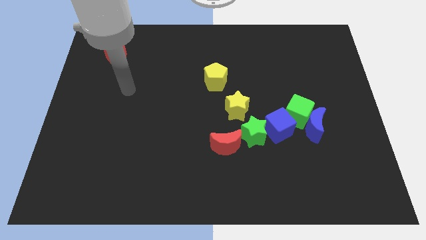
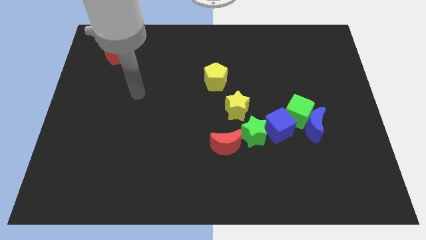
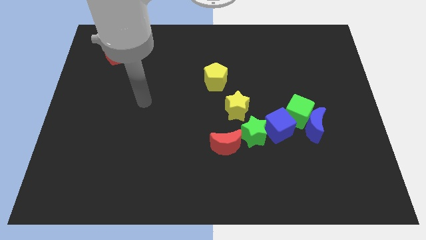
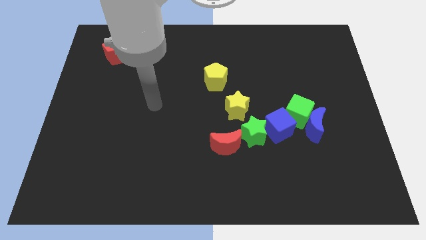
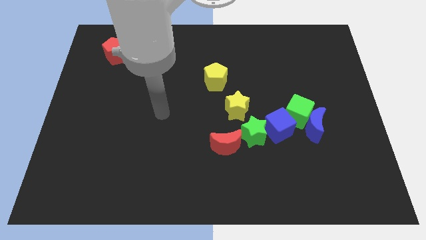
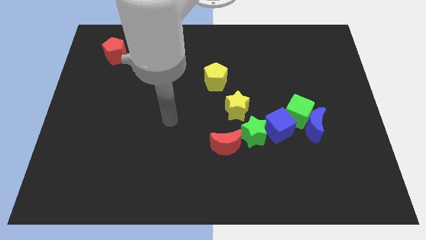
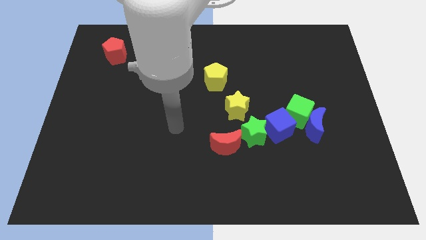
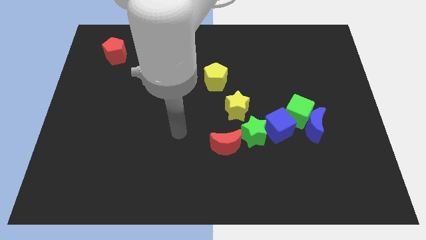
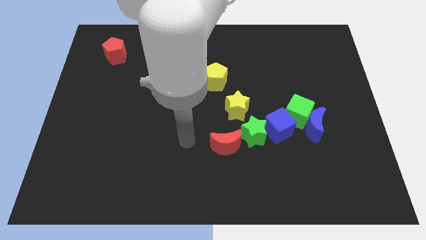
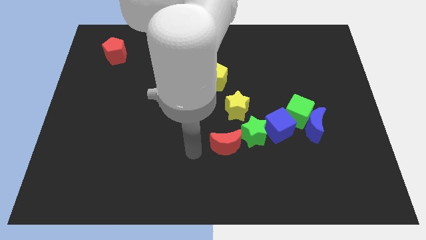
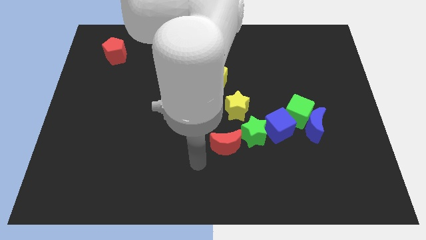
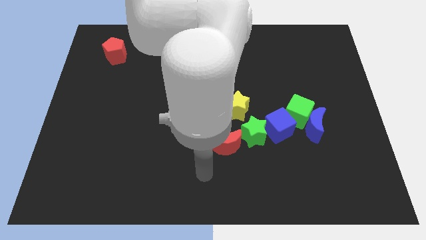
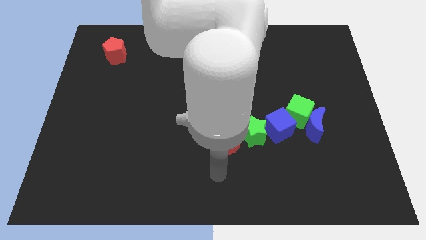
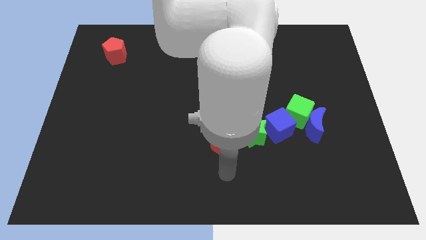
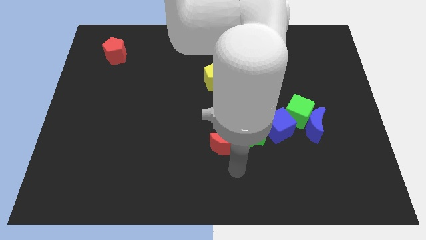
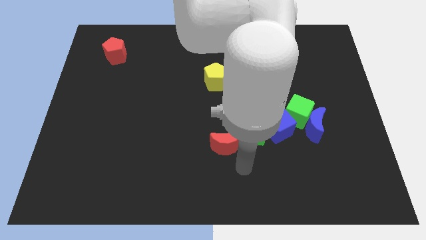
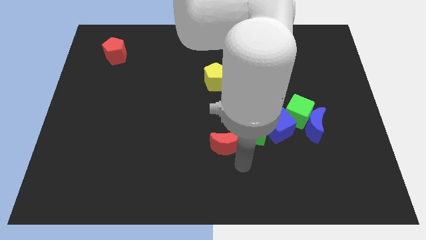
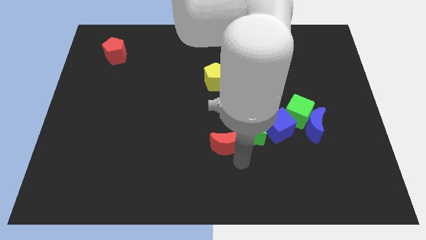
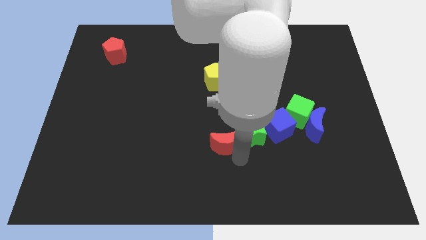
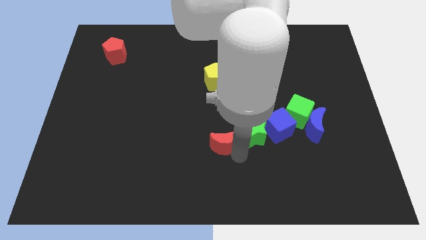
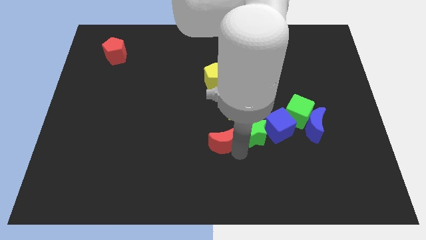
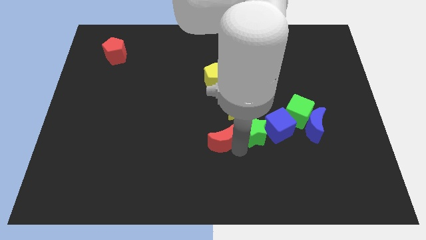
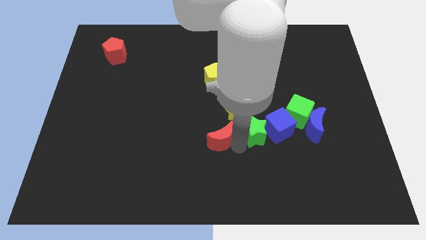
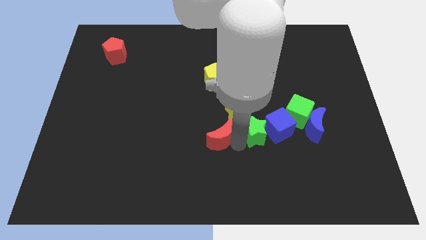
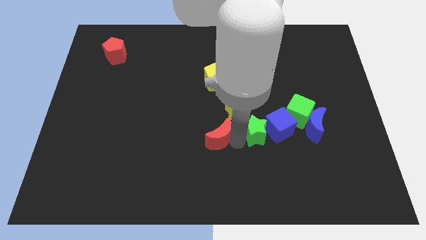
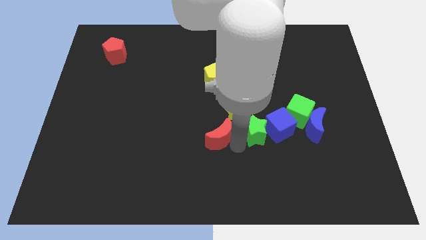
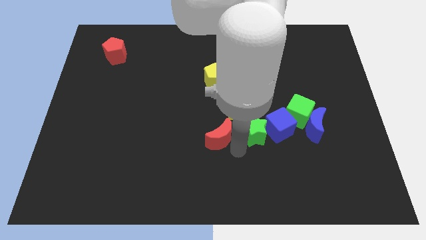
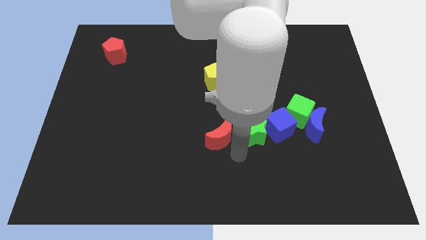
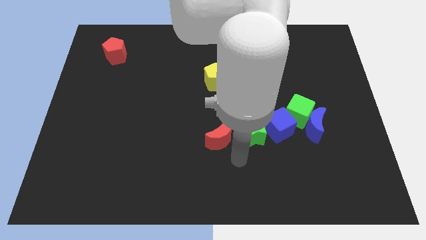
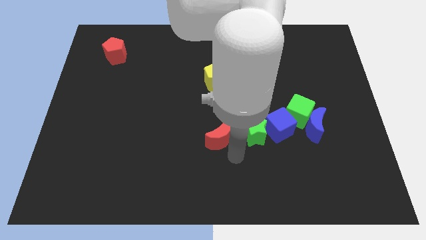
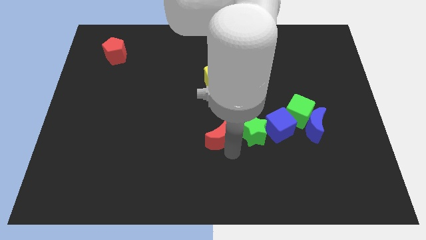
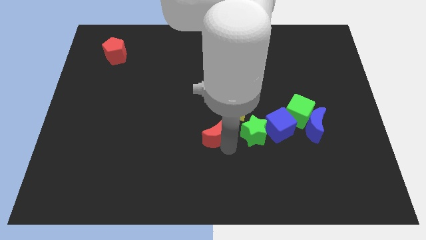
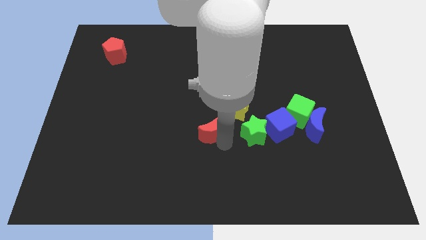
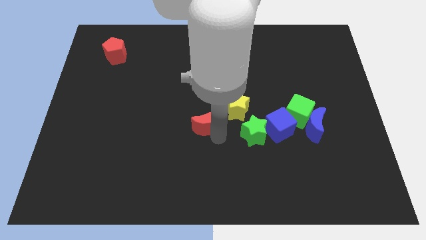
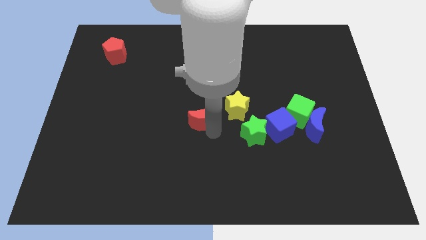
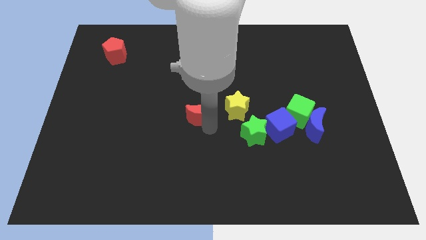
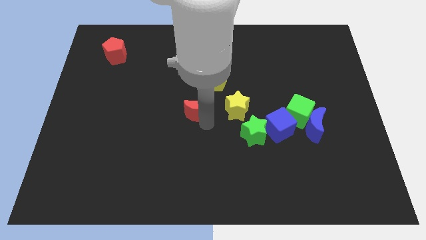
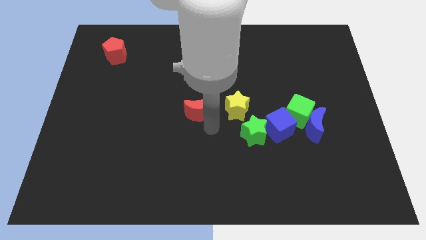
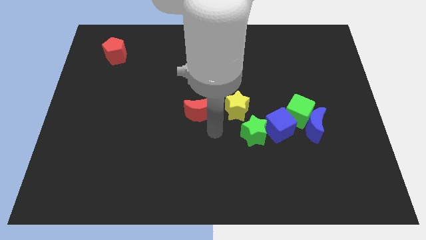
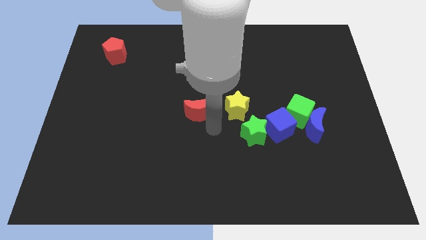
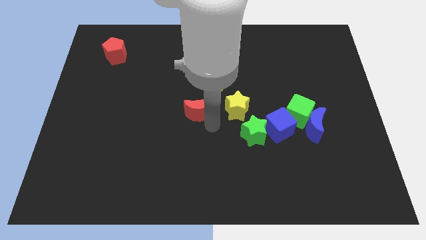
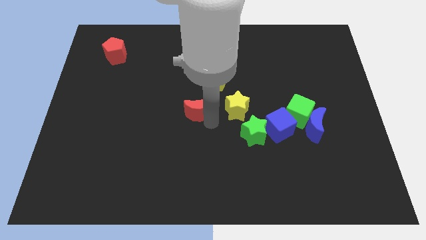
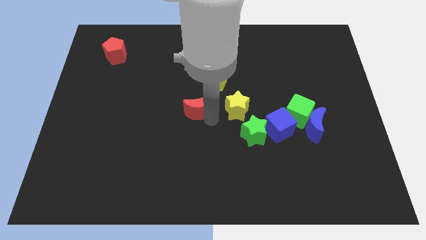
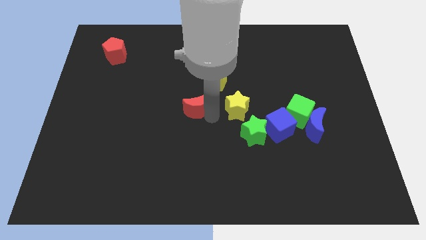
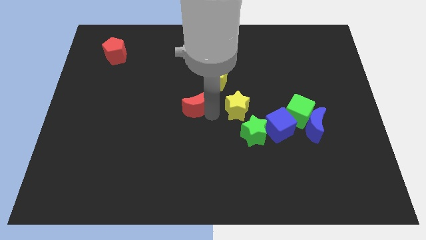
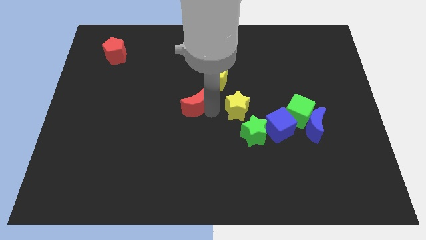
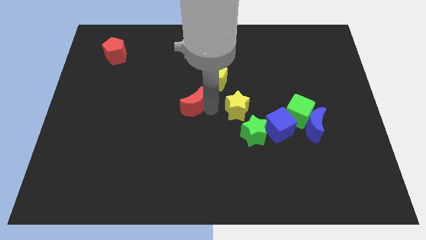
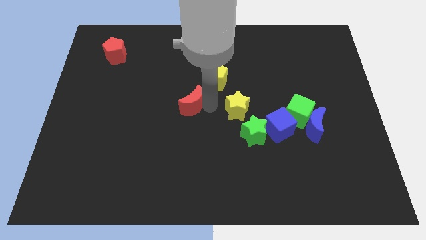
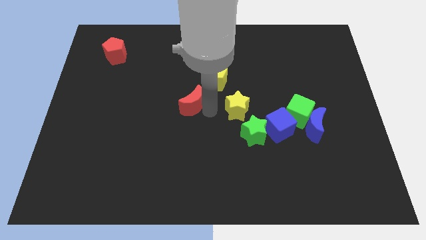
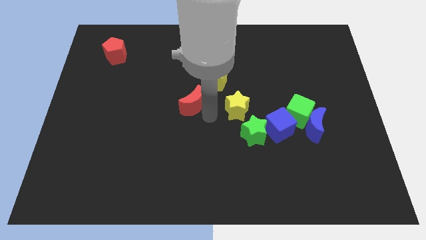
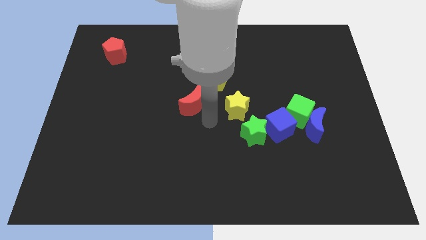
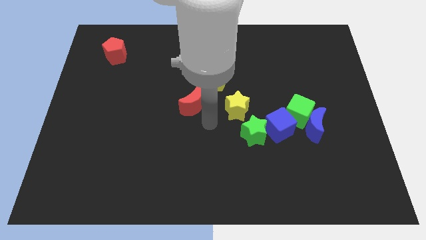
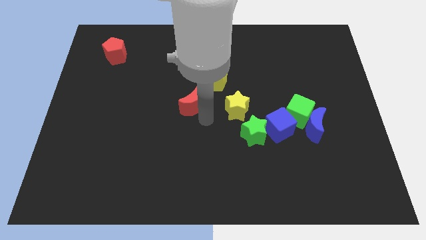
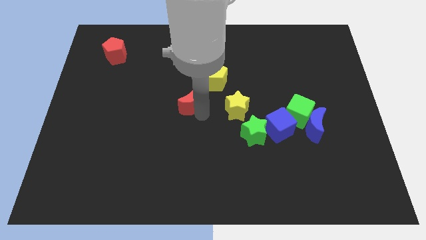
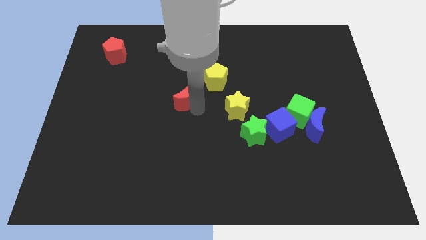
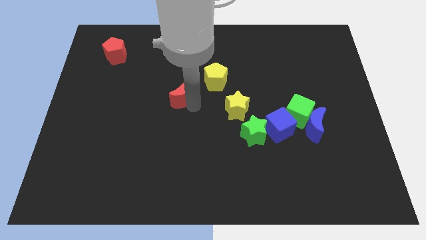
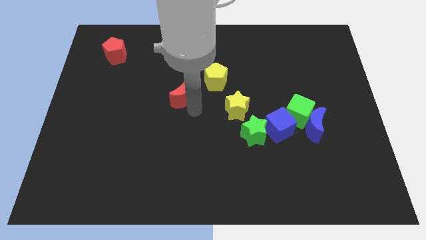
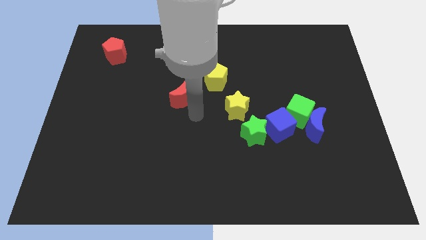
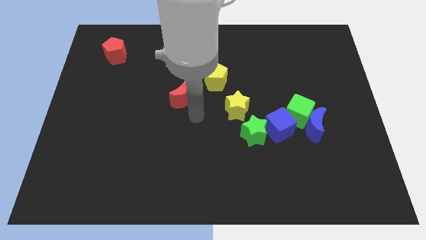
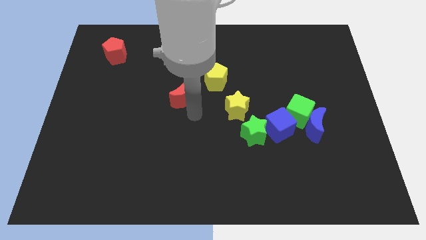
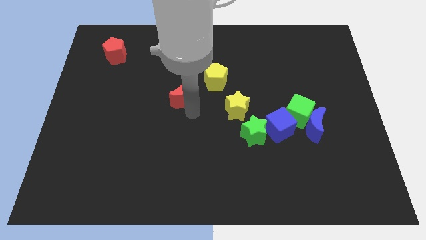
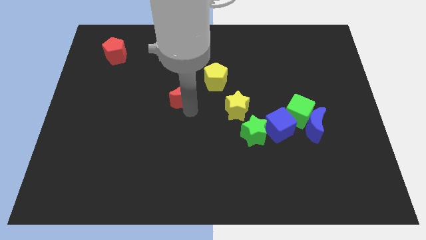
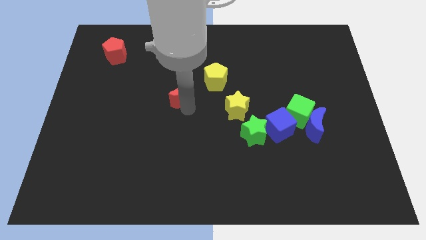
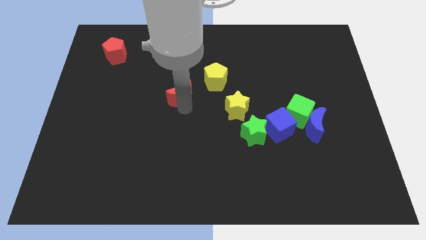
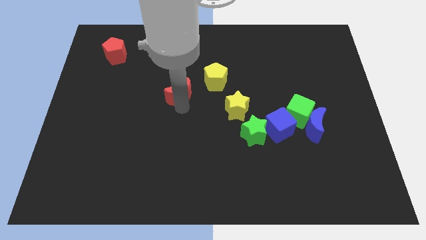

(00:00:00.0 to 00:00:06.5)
push the red moon to the left side of the yellow pentagon

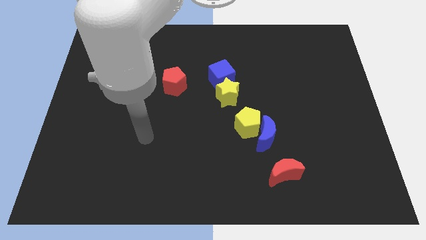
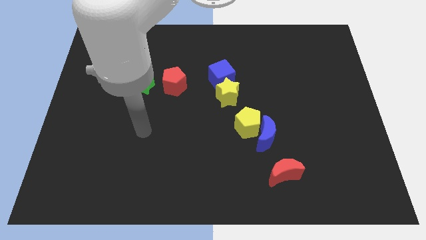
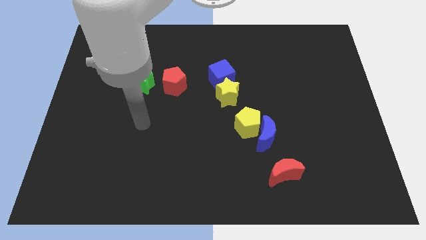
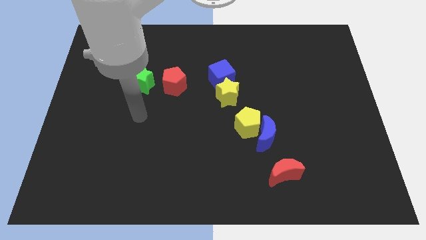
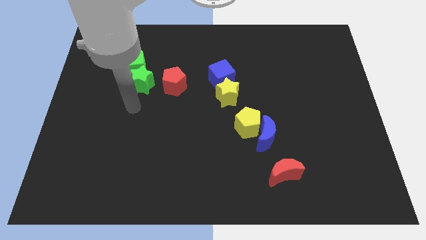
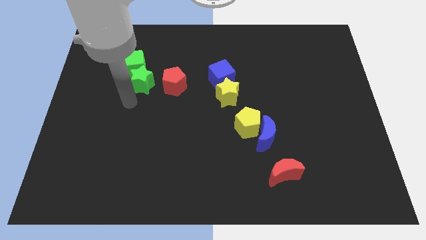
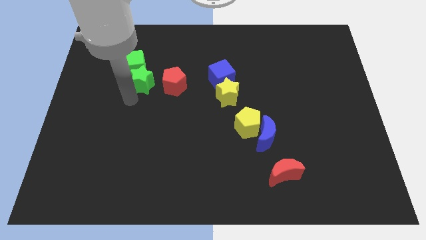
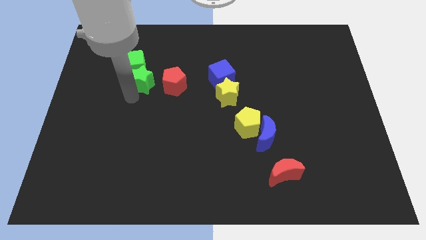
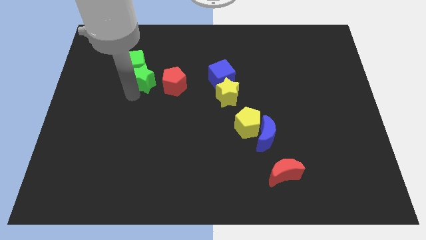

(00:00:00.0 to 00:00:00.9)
push the green star to the top left of the red pentagon
